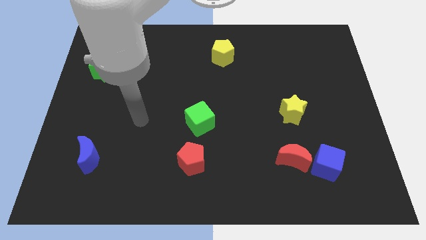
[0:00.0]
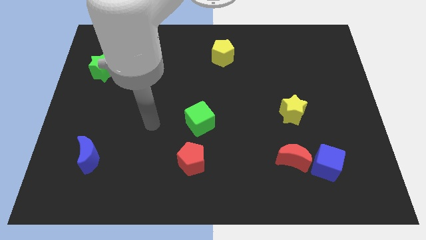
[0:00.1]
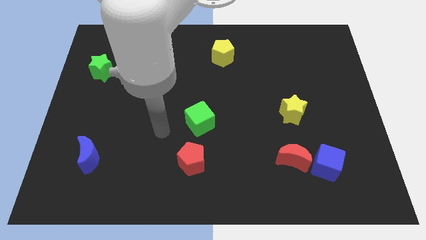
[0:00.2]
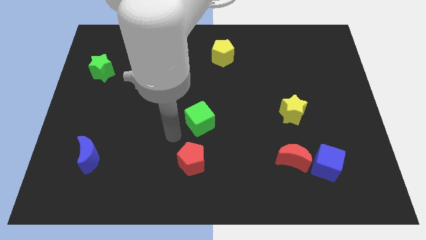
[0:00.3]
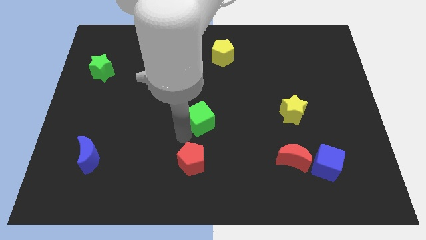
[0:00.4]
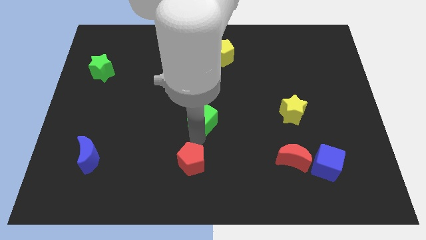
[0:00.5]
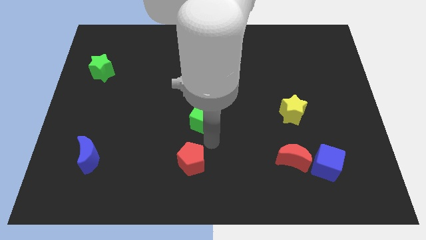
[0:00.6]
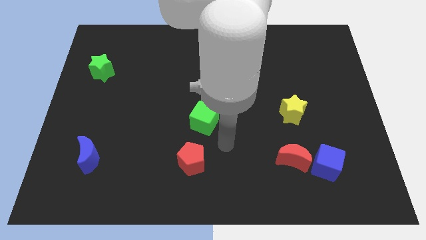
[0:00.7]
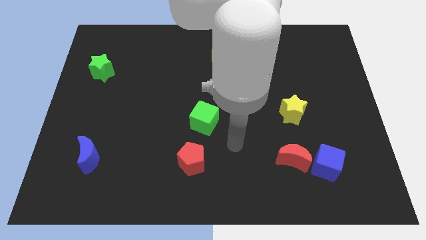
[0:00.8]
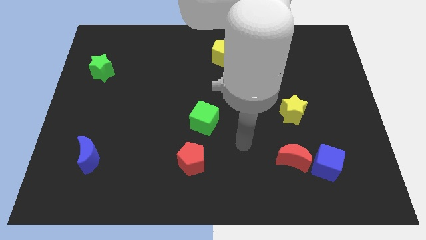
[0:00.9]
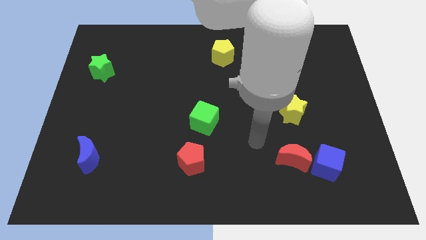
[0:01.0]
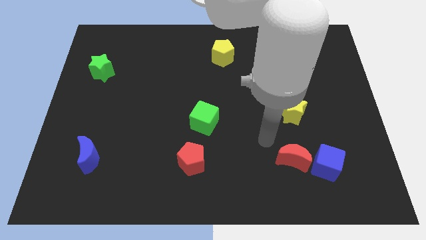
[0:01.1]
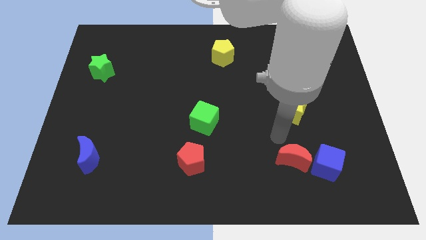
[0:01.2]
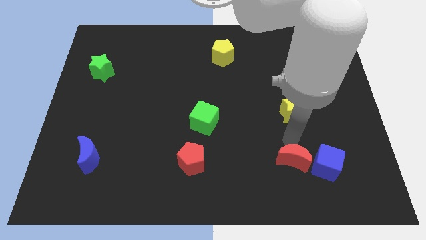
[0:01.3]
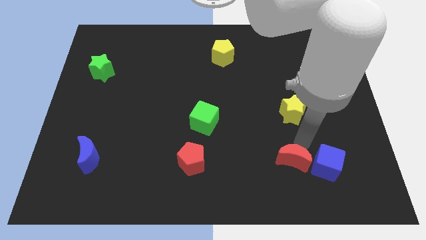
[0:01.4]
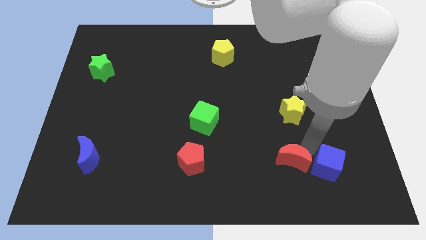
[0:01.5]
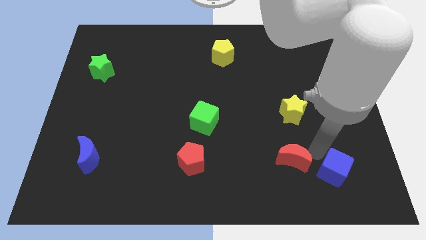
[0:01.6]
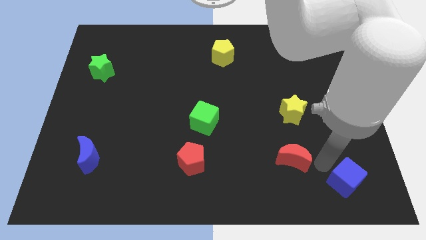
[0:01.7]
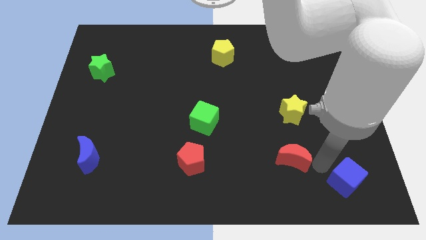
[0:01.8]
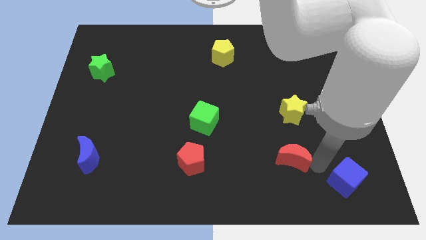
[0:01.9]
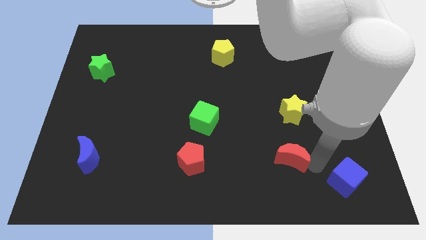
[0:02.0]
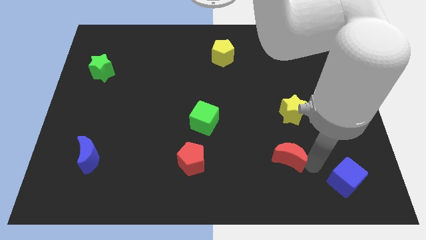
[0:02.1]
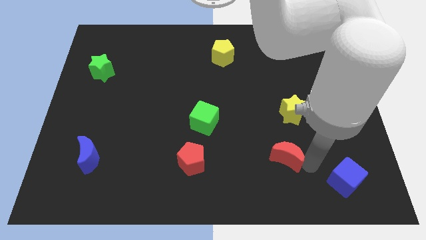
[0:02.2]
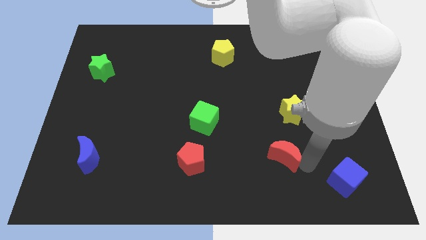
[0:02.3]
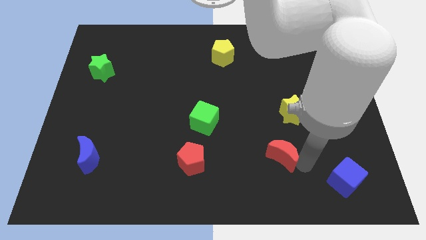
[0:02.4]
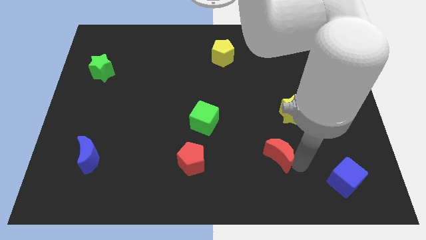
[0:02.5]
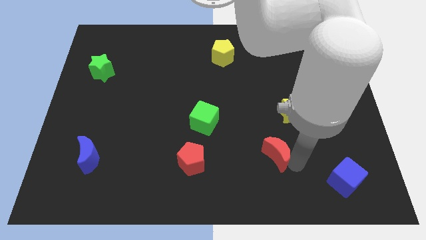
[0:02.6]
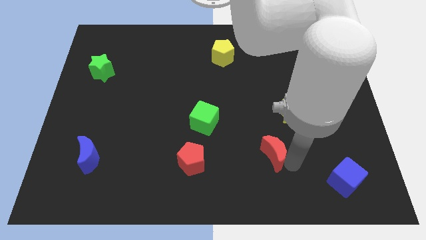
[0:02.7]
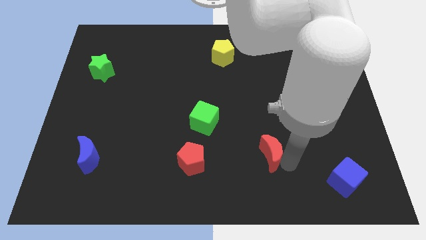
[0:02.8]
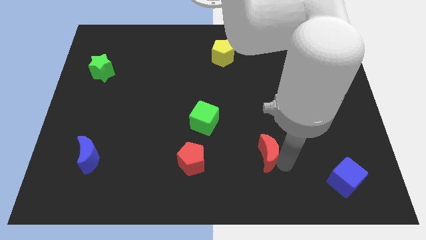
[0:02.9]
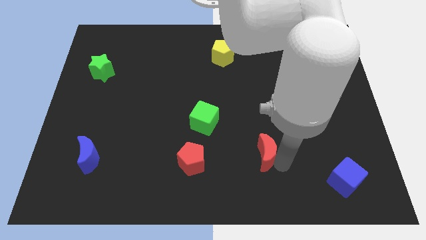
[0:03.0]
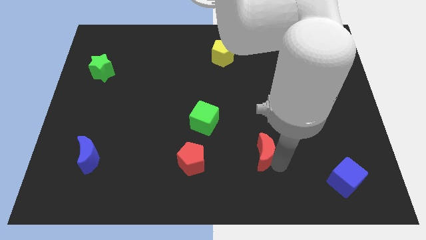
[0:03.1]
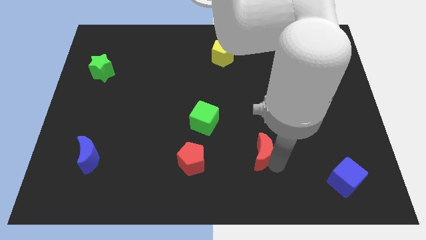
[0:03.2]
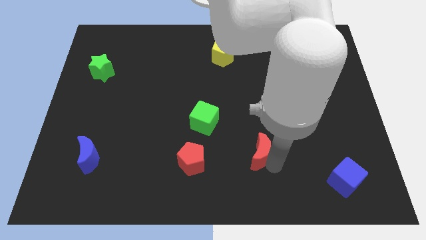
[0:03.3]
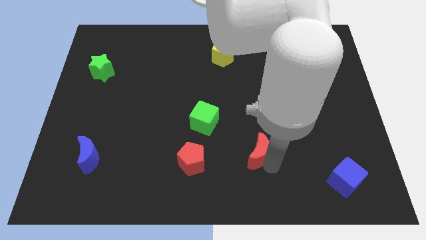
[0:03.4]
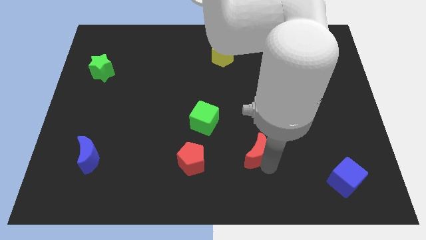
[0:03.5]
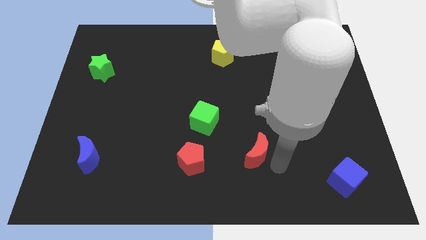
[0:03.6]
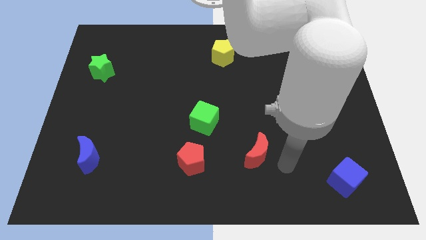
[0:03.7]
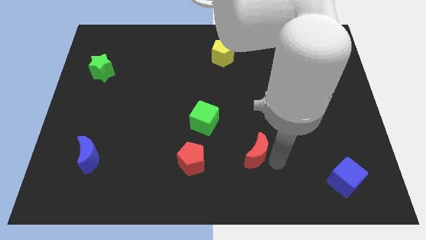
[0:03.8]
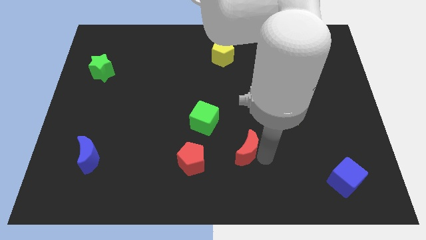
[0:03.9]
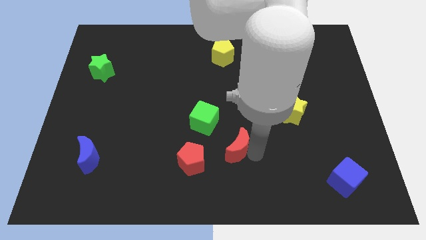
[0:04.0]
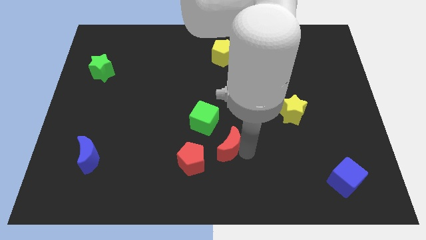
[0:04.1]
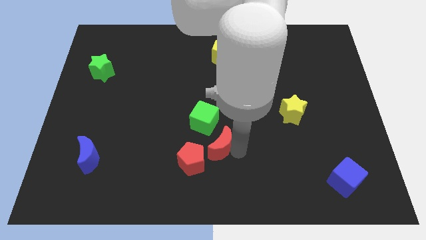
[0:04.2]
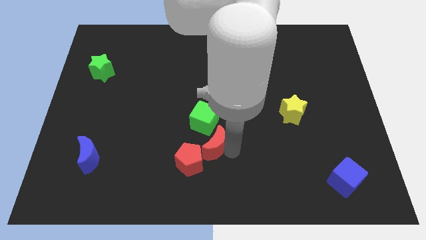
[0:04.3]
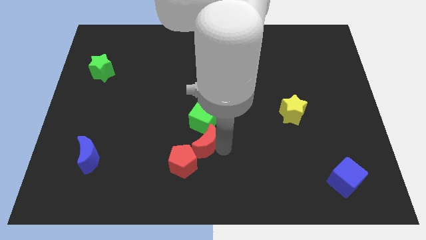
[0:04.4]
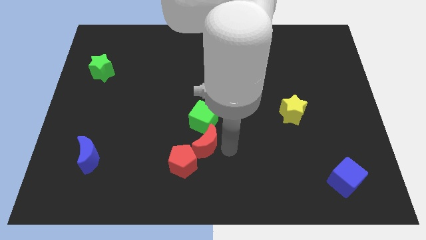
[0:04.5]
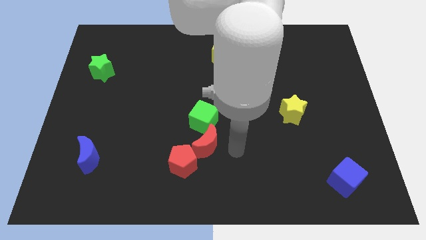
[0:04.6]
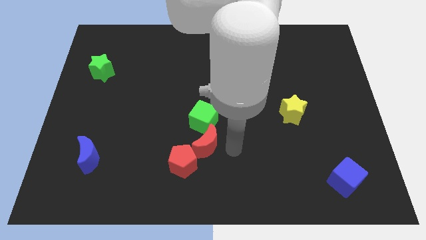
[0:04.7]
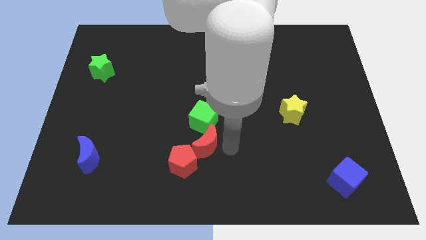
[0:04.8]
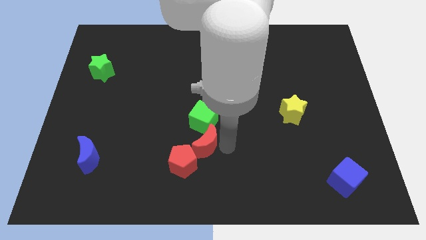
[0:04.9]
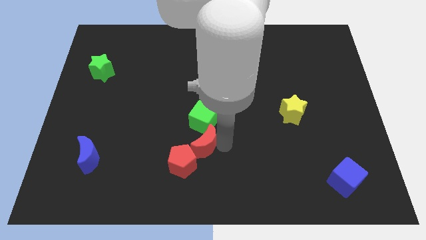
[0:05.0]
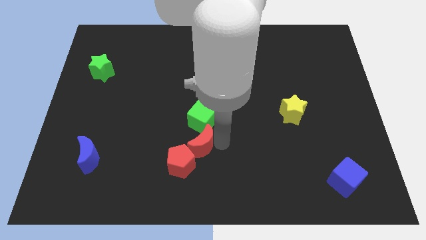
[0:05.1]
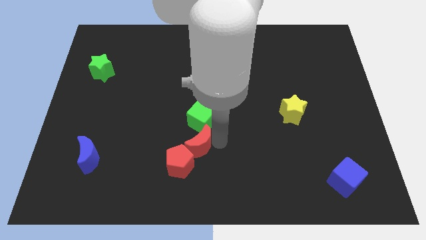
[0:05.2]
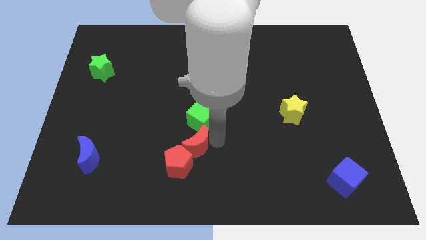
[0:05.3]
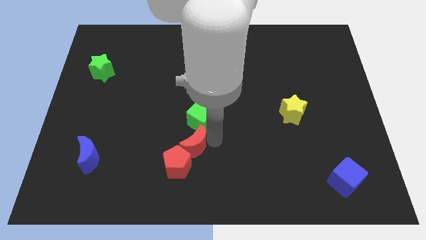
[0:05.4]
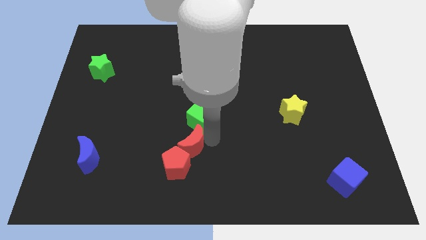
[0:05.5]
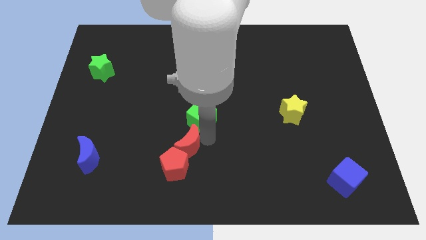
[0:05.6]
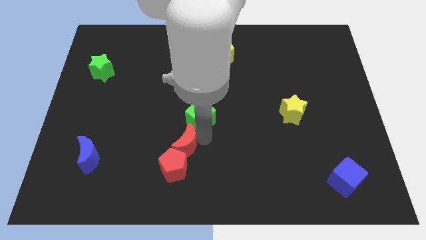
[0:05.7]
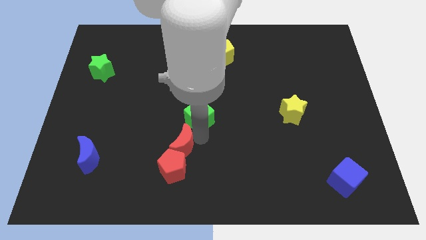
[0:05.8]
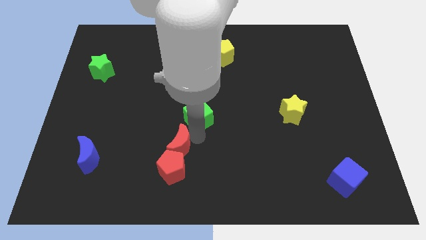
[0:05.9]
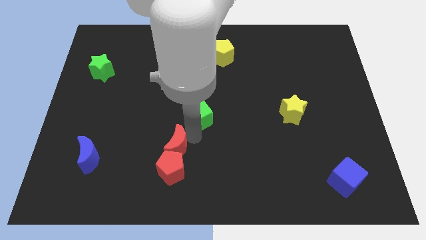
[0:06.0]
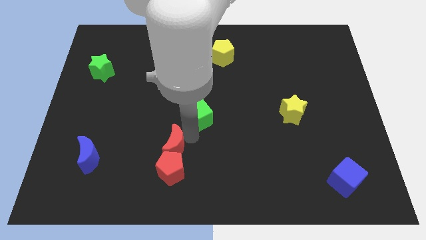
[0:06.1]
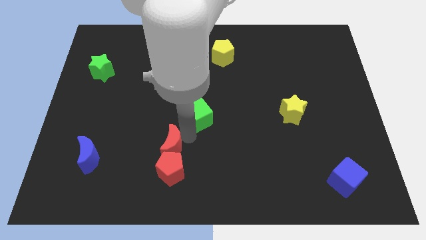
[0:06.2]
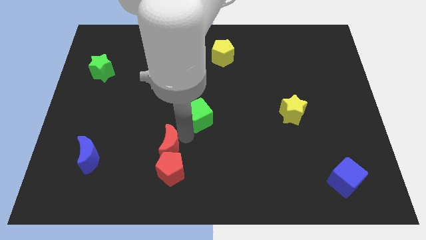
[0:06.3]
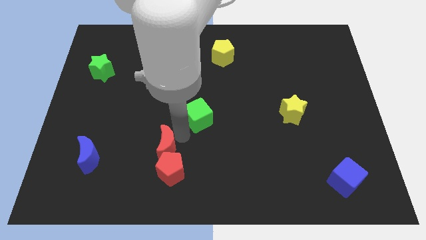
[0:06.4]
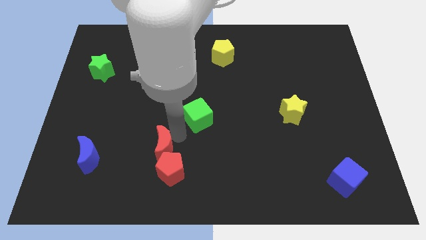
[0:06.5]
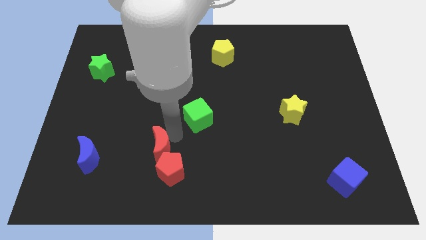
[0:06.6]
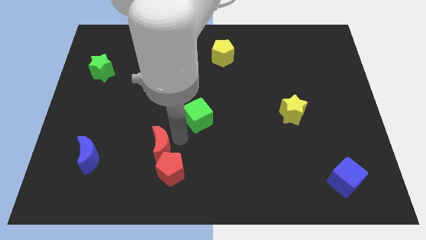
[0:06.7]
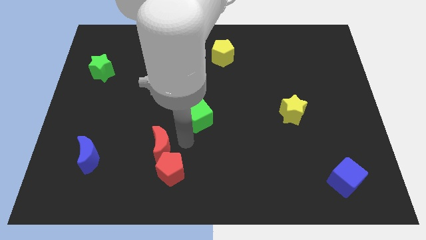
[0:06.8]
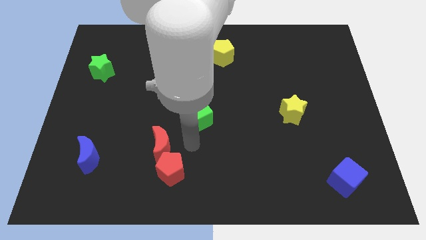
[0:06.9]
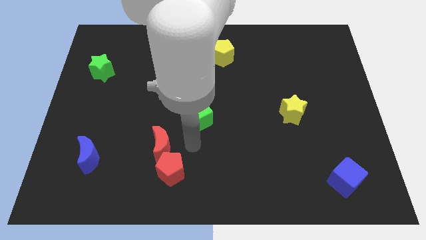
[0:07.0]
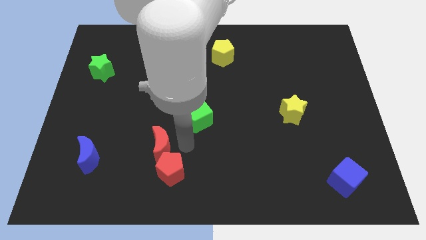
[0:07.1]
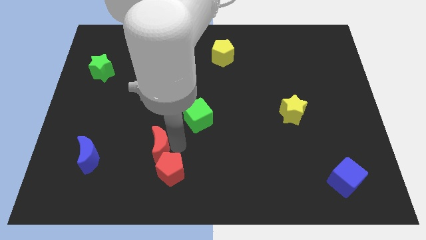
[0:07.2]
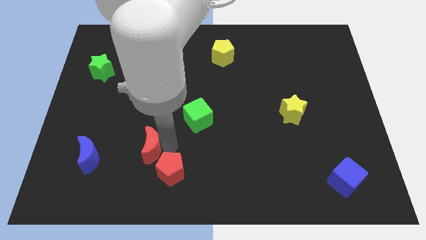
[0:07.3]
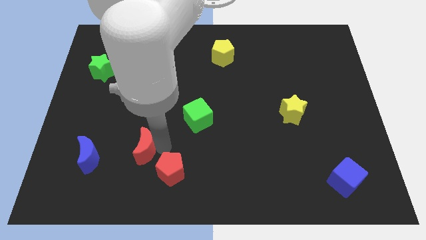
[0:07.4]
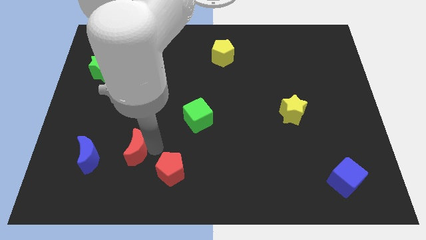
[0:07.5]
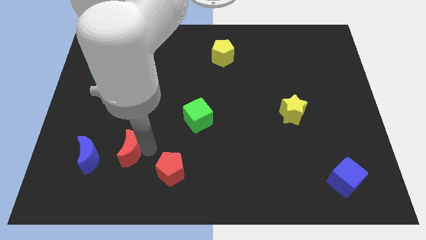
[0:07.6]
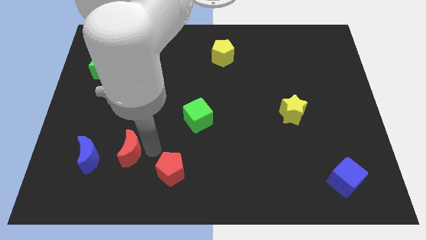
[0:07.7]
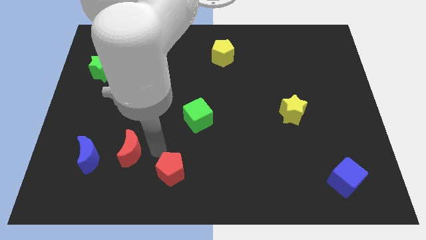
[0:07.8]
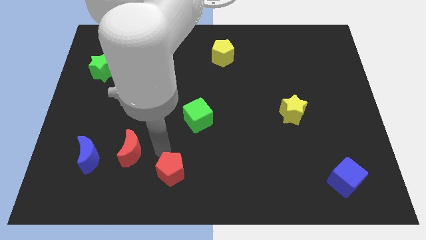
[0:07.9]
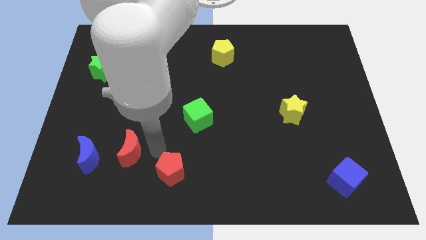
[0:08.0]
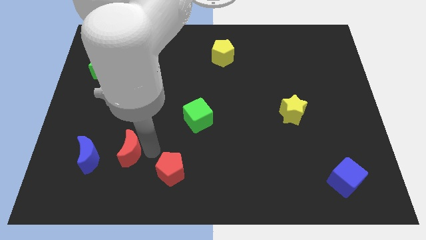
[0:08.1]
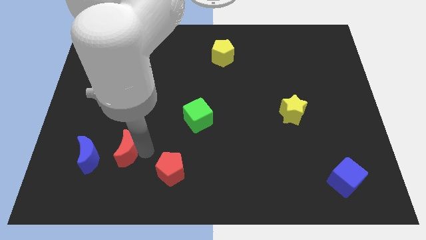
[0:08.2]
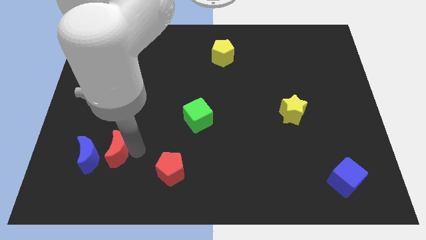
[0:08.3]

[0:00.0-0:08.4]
move the red moon to the blue moon

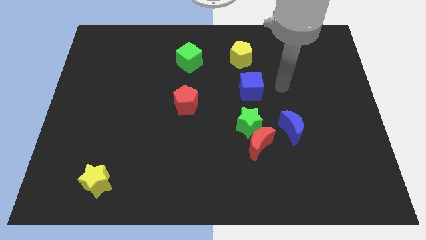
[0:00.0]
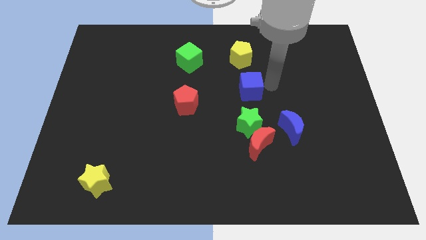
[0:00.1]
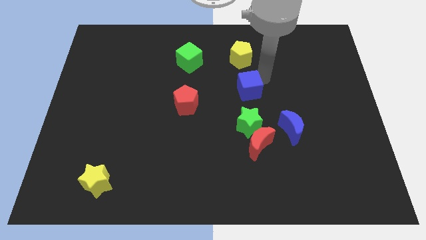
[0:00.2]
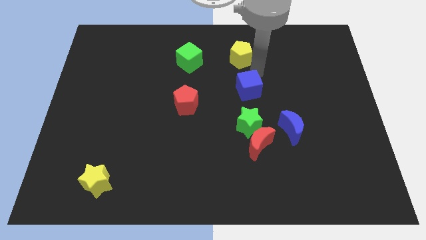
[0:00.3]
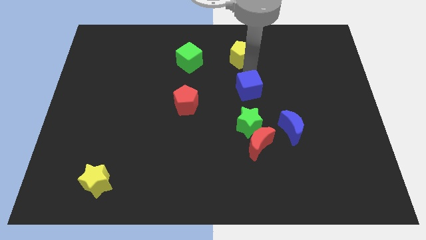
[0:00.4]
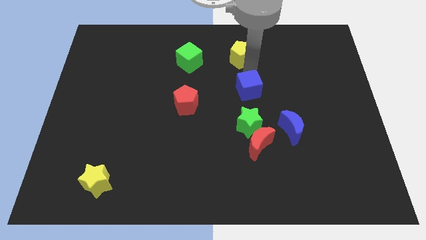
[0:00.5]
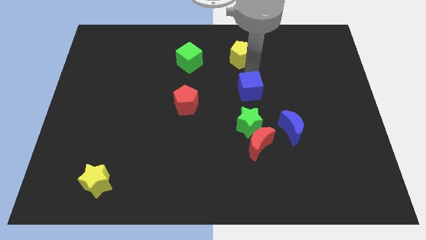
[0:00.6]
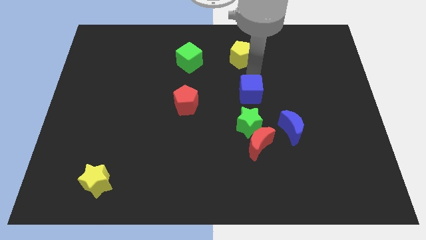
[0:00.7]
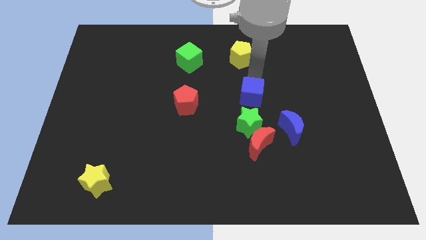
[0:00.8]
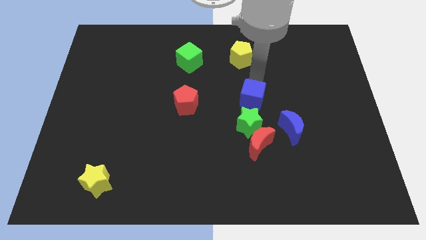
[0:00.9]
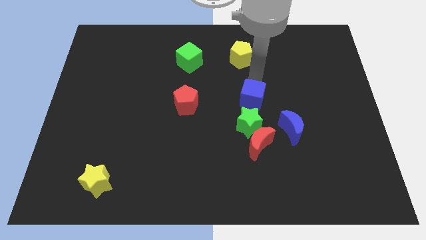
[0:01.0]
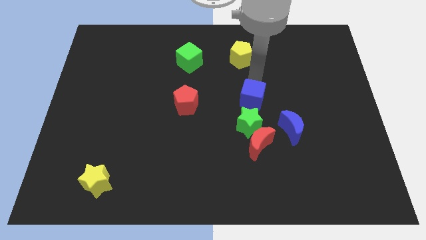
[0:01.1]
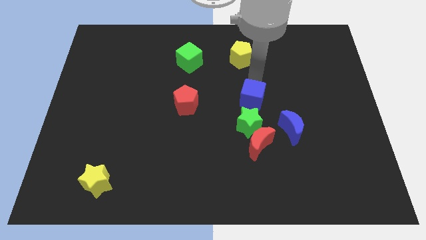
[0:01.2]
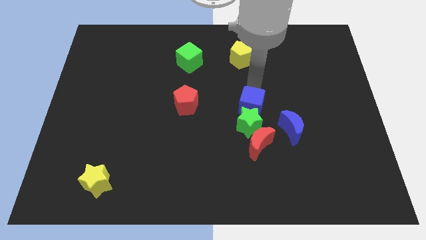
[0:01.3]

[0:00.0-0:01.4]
push the blue cube towards the green star
